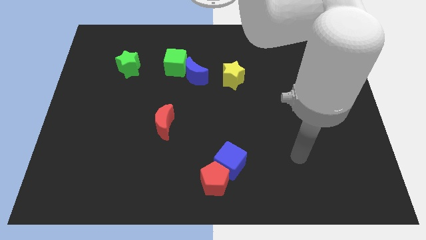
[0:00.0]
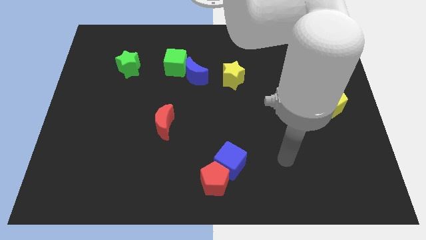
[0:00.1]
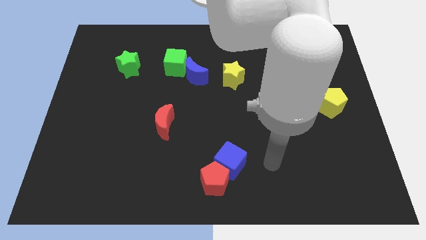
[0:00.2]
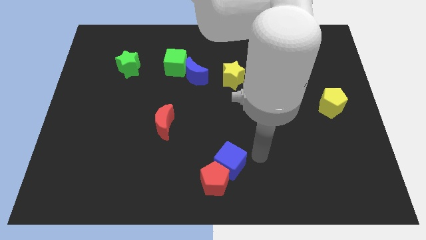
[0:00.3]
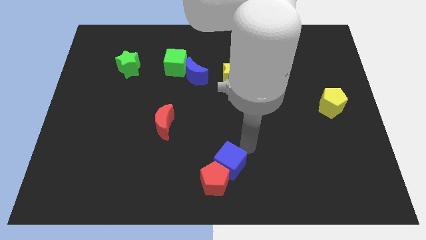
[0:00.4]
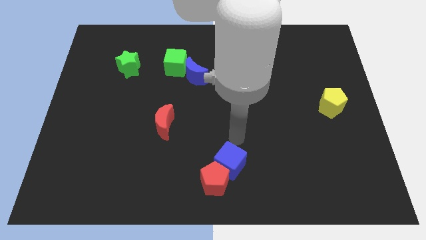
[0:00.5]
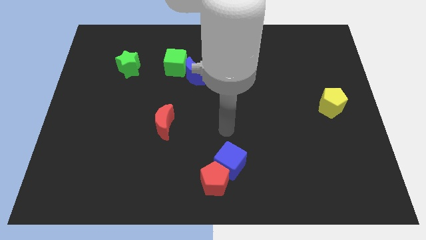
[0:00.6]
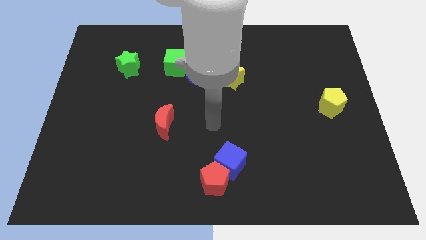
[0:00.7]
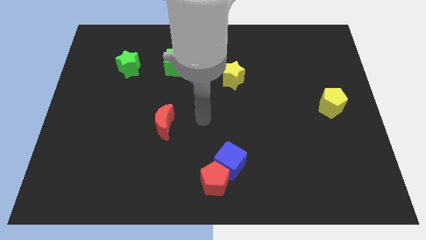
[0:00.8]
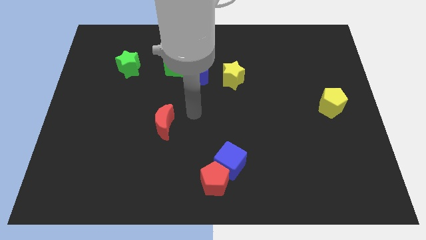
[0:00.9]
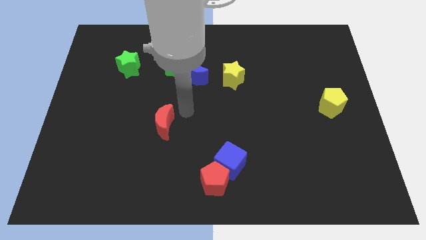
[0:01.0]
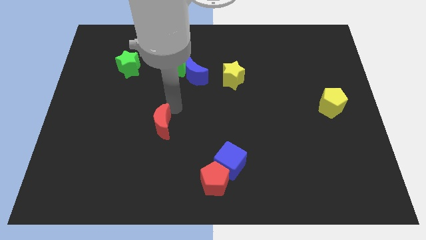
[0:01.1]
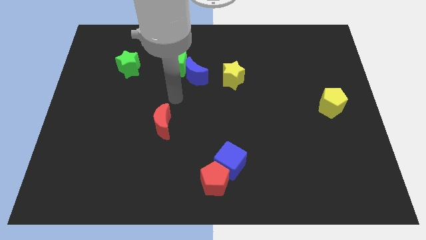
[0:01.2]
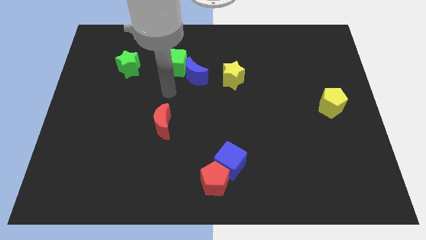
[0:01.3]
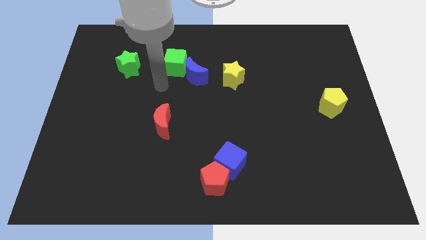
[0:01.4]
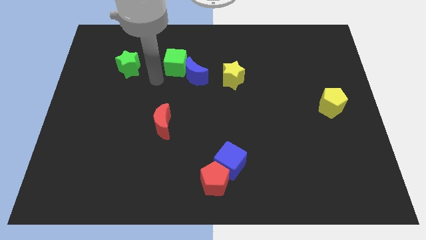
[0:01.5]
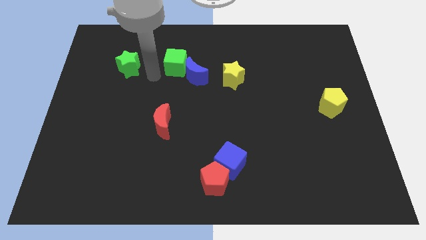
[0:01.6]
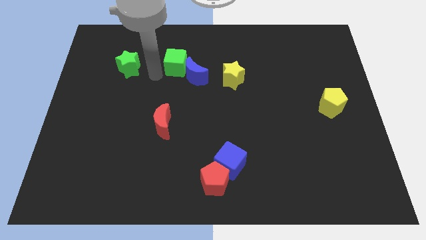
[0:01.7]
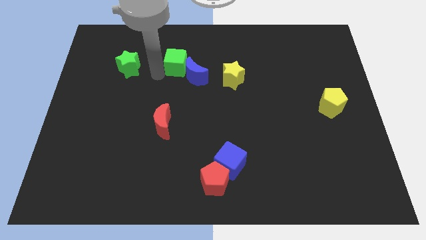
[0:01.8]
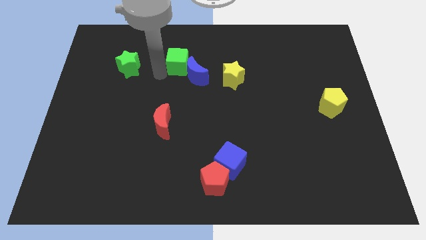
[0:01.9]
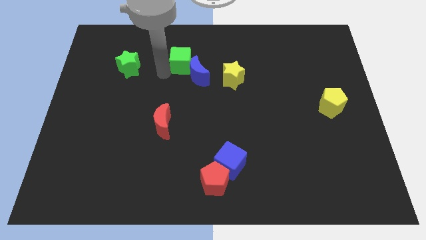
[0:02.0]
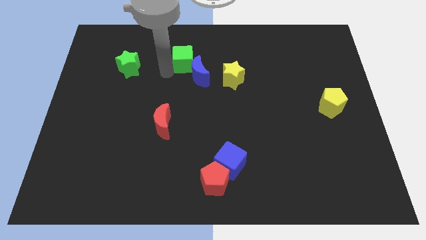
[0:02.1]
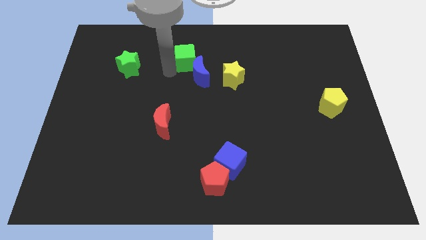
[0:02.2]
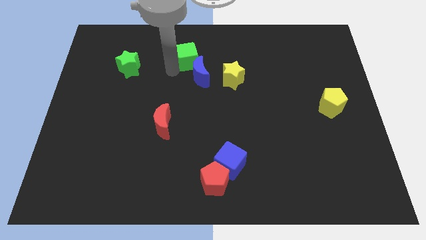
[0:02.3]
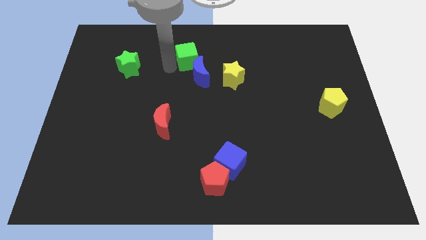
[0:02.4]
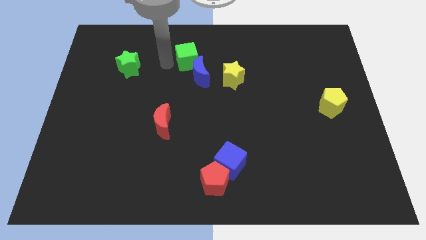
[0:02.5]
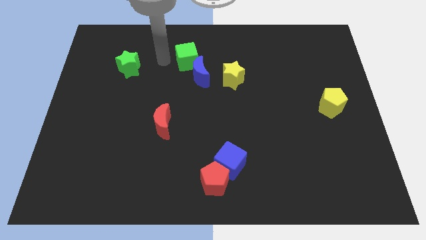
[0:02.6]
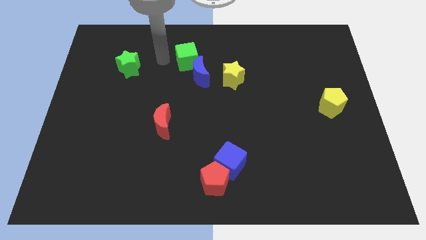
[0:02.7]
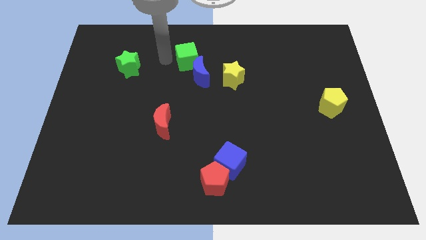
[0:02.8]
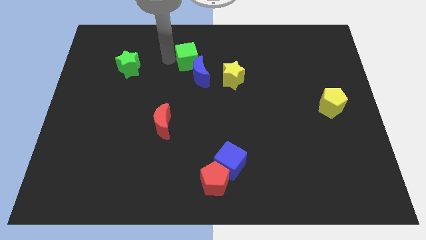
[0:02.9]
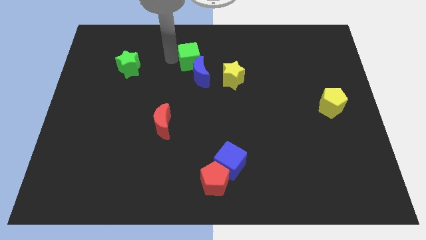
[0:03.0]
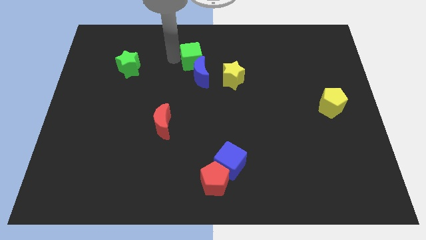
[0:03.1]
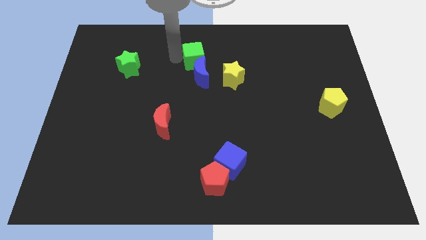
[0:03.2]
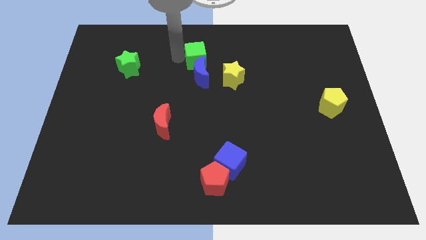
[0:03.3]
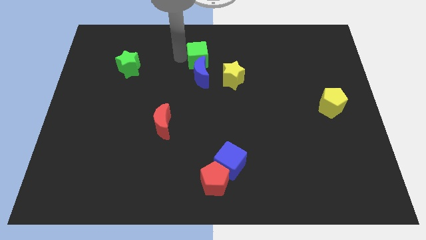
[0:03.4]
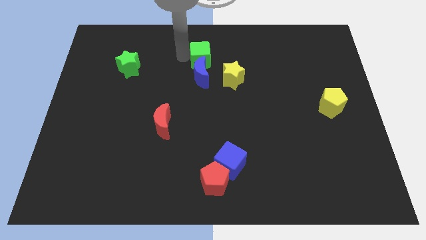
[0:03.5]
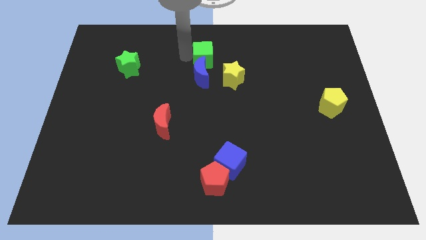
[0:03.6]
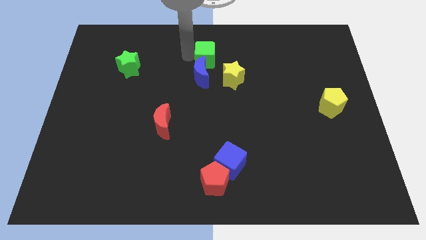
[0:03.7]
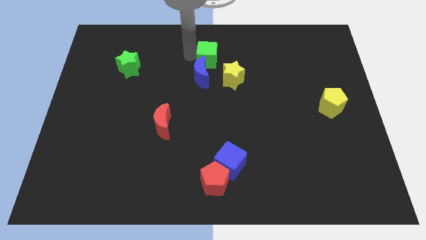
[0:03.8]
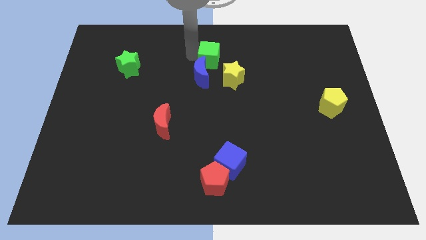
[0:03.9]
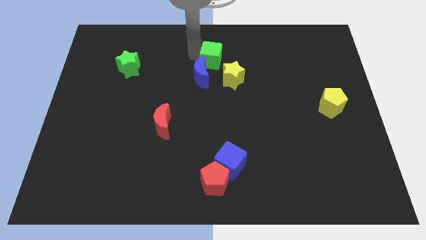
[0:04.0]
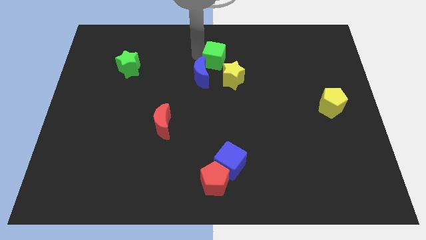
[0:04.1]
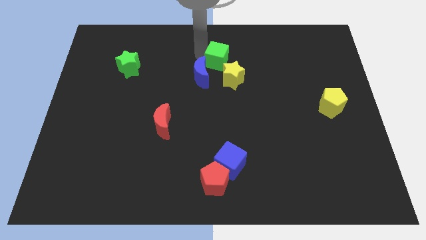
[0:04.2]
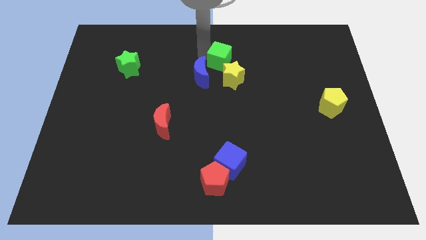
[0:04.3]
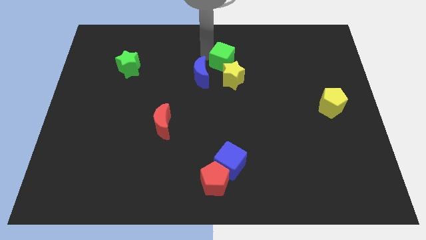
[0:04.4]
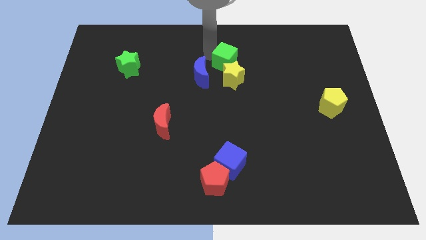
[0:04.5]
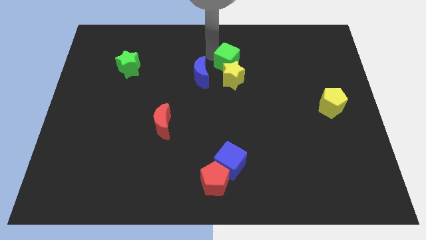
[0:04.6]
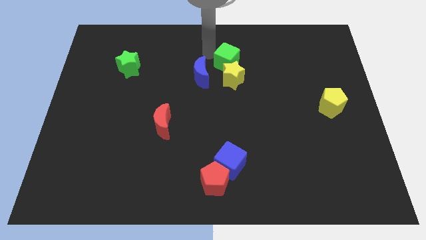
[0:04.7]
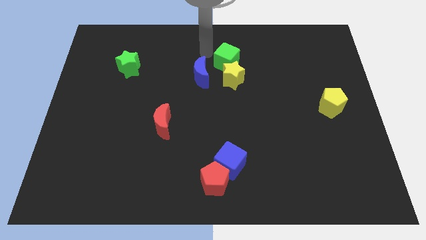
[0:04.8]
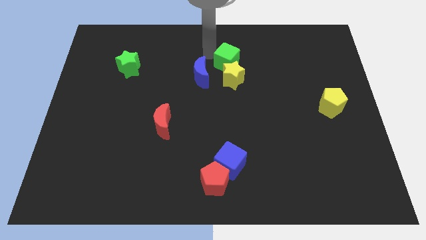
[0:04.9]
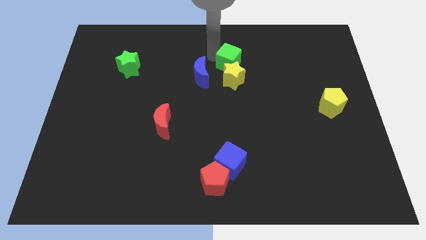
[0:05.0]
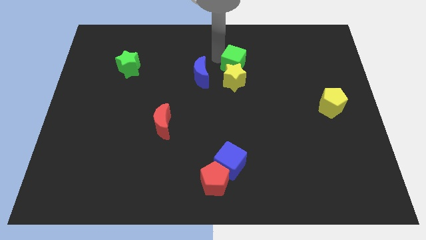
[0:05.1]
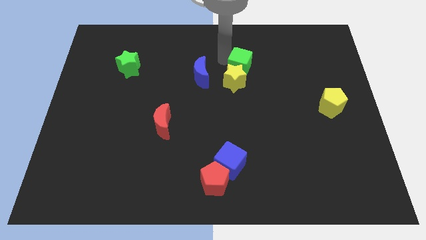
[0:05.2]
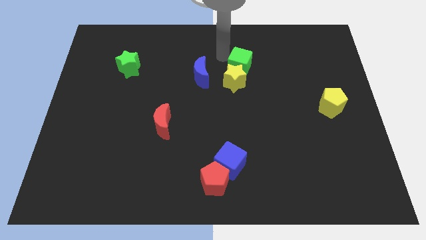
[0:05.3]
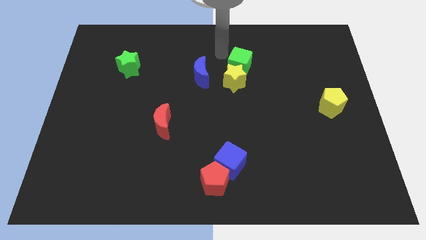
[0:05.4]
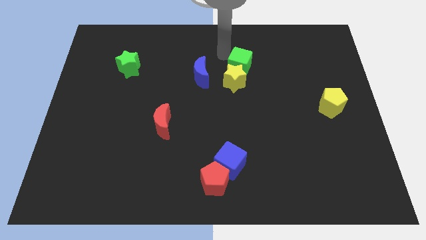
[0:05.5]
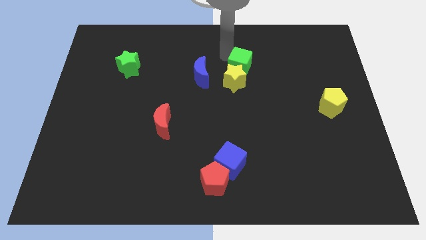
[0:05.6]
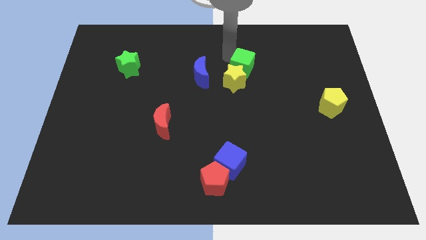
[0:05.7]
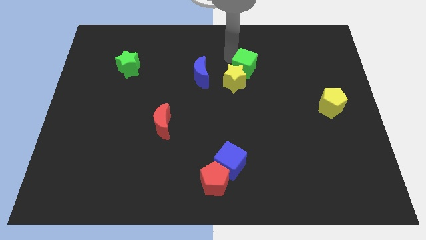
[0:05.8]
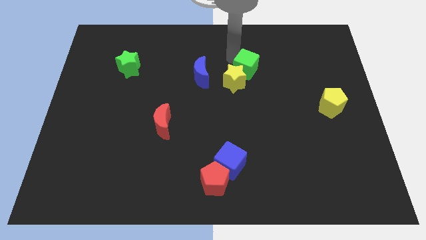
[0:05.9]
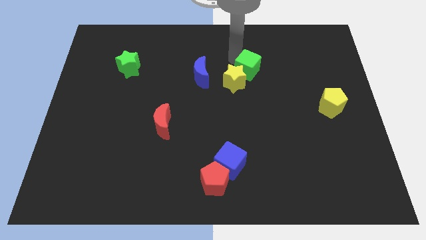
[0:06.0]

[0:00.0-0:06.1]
push the green cube to the right side of the yellow star

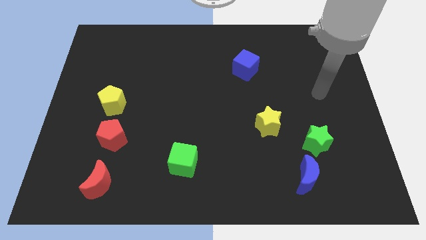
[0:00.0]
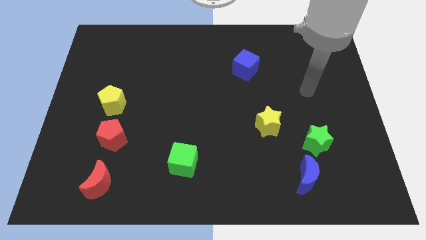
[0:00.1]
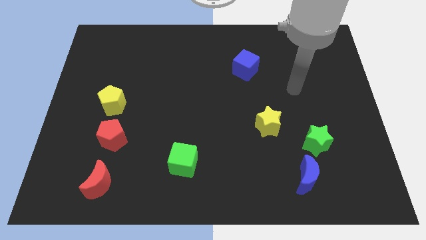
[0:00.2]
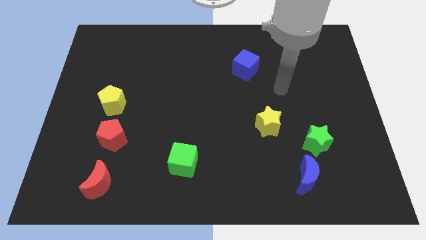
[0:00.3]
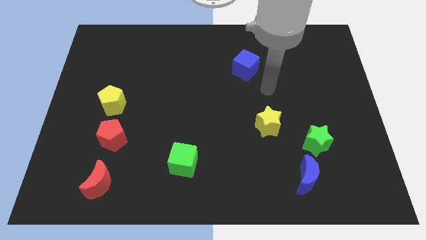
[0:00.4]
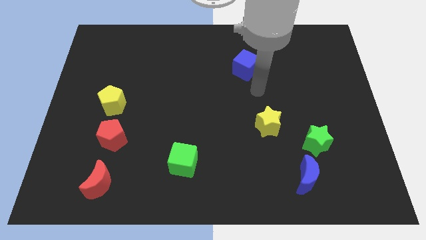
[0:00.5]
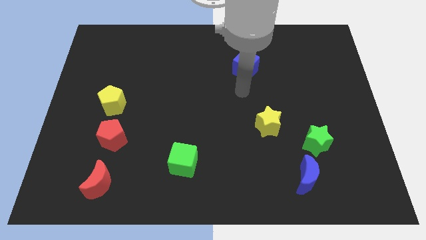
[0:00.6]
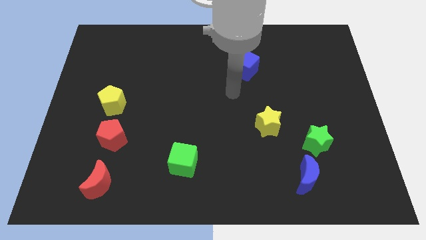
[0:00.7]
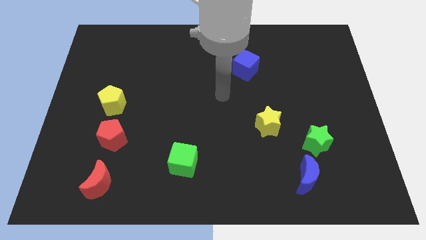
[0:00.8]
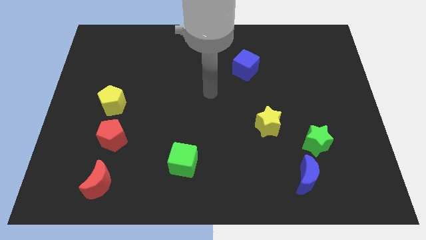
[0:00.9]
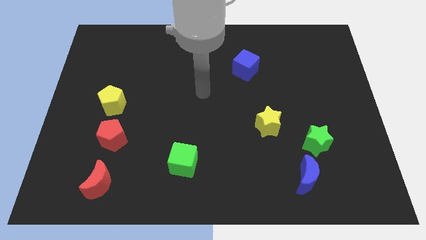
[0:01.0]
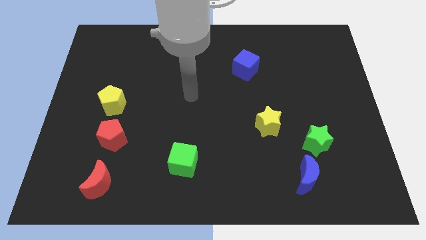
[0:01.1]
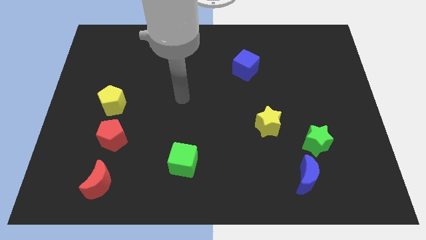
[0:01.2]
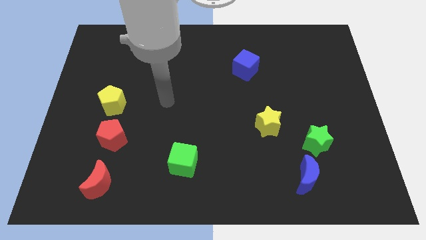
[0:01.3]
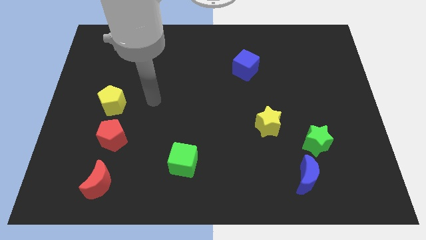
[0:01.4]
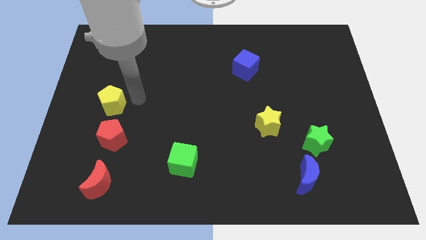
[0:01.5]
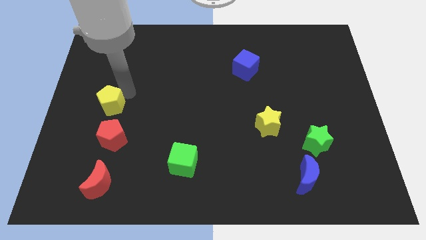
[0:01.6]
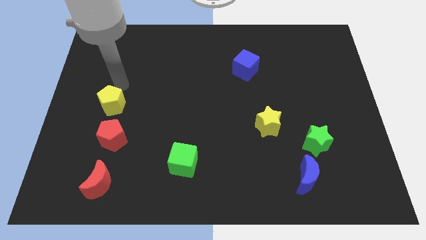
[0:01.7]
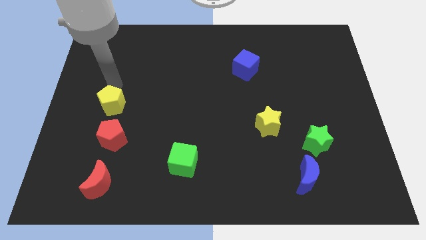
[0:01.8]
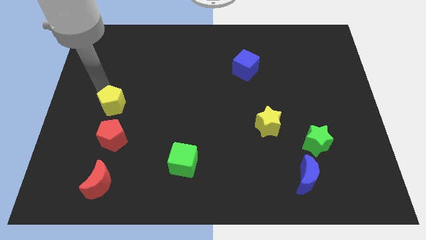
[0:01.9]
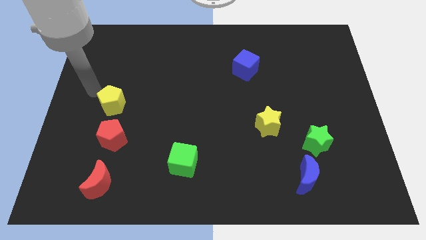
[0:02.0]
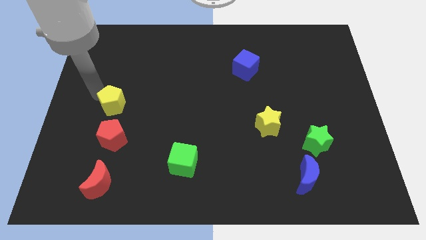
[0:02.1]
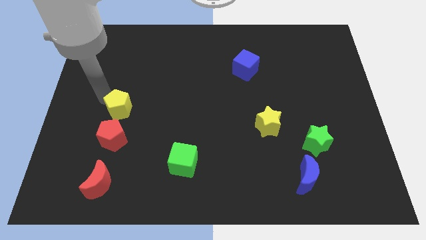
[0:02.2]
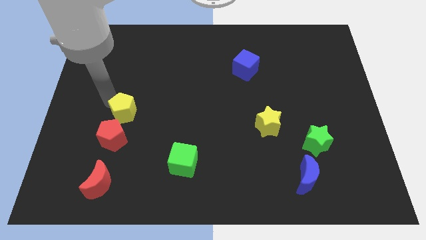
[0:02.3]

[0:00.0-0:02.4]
put the yellow pentagon diagonally up and to the right of the red pentagon
